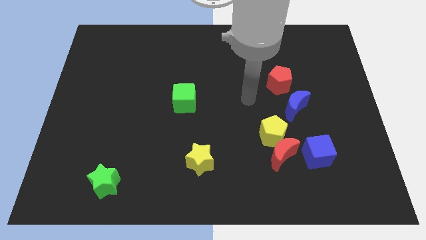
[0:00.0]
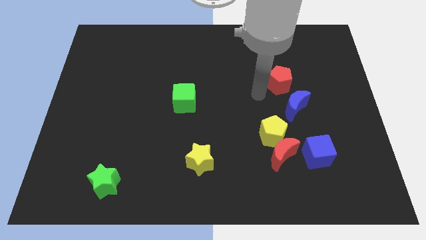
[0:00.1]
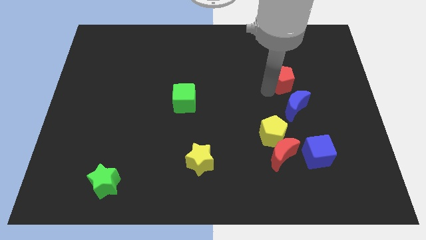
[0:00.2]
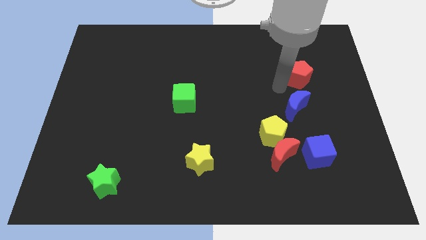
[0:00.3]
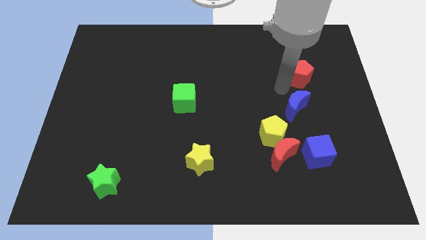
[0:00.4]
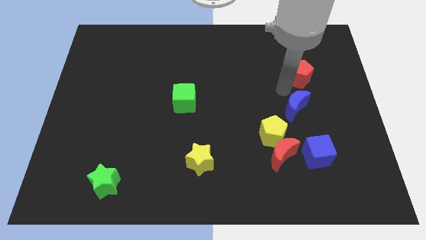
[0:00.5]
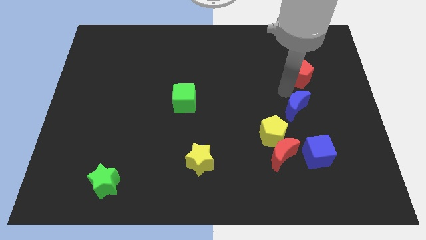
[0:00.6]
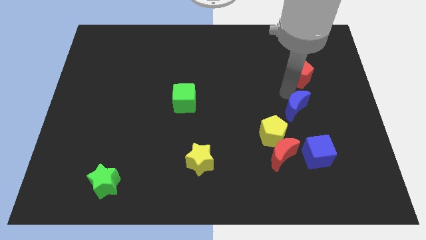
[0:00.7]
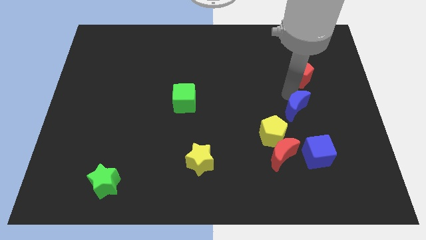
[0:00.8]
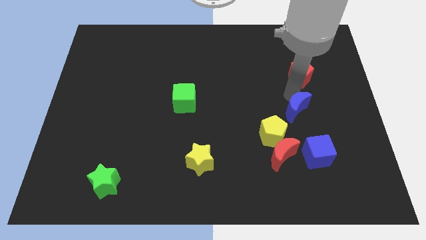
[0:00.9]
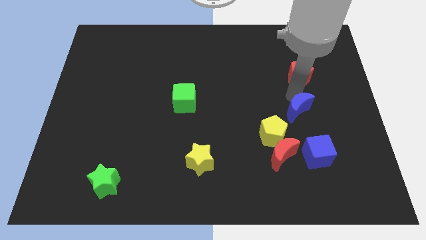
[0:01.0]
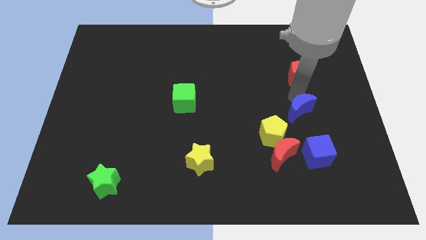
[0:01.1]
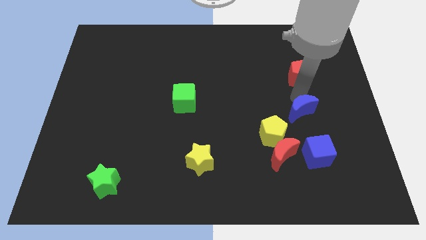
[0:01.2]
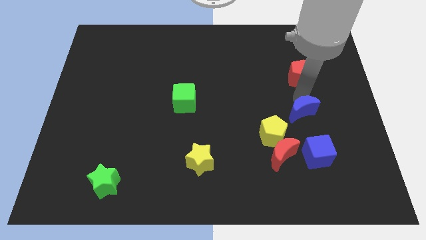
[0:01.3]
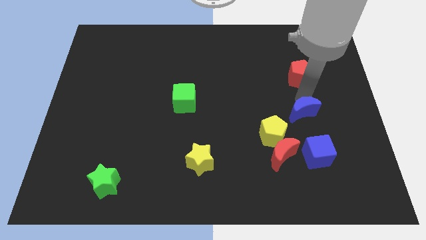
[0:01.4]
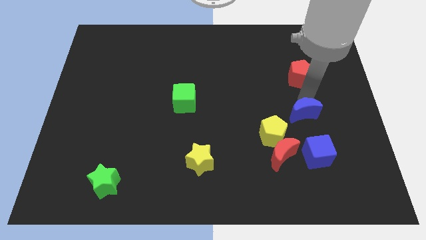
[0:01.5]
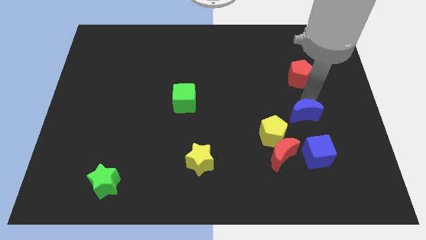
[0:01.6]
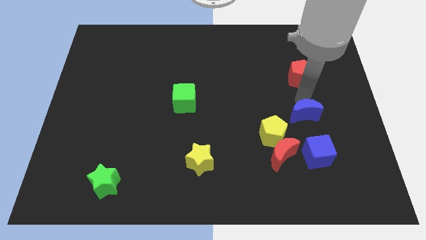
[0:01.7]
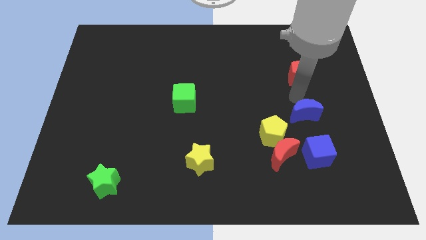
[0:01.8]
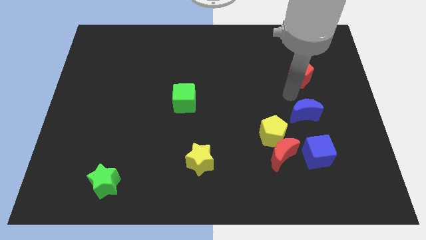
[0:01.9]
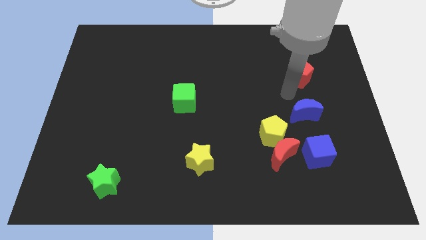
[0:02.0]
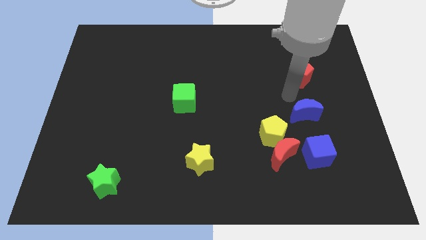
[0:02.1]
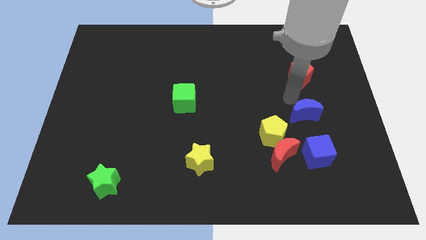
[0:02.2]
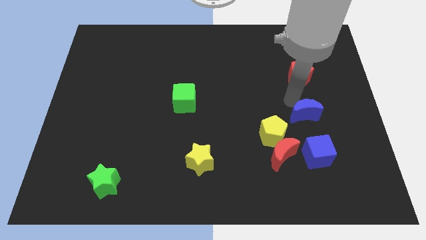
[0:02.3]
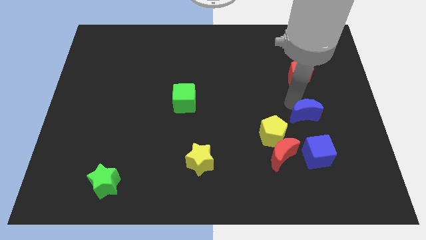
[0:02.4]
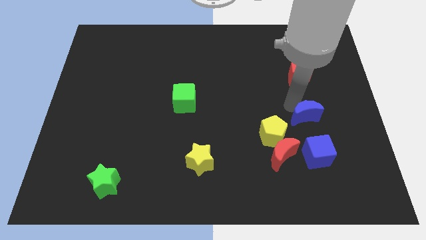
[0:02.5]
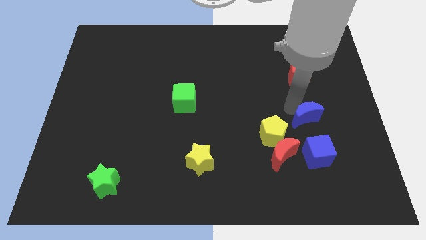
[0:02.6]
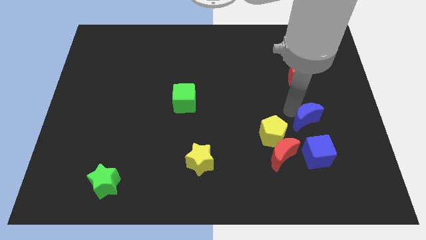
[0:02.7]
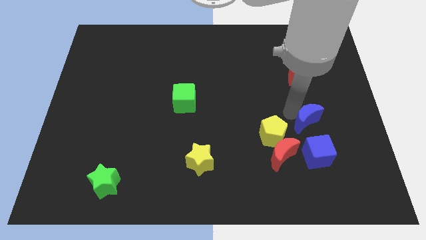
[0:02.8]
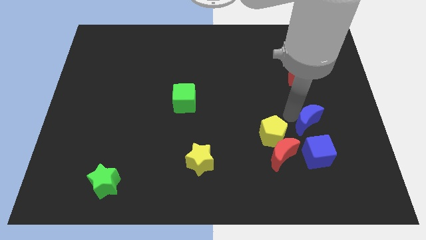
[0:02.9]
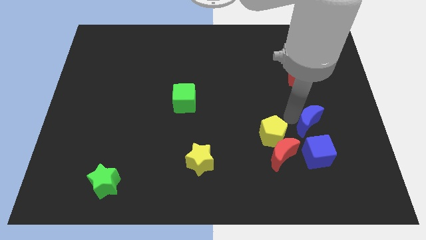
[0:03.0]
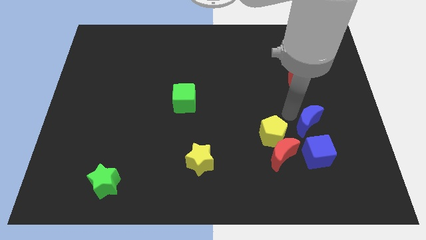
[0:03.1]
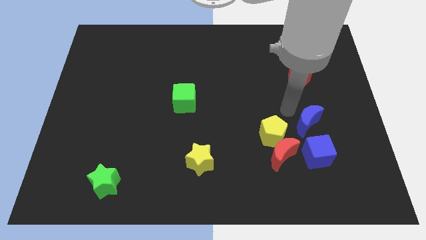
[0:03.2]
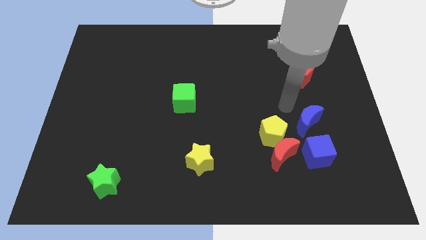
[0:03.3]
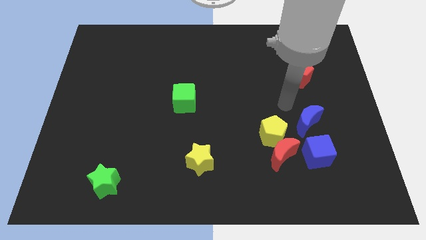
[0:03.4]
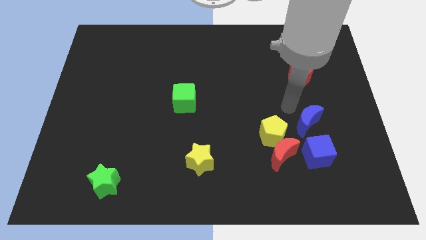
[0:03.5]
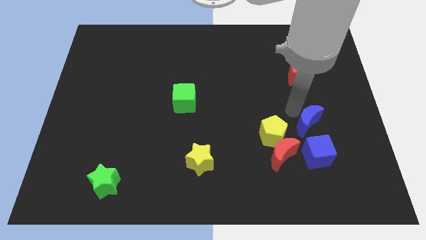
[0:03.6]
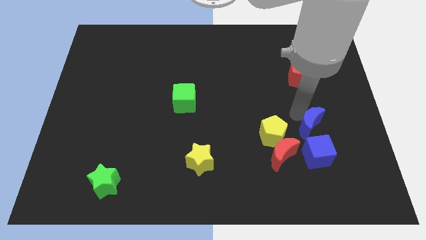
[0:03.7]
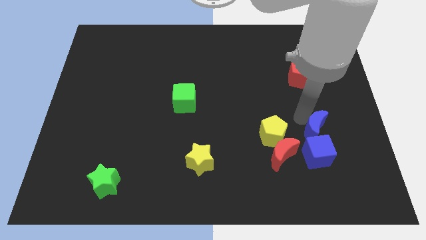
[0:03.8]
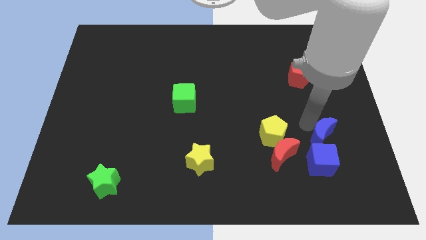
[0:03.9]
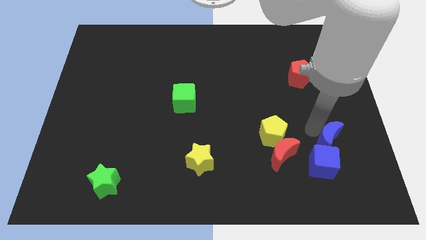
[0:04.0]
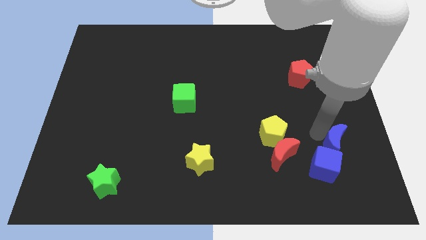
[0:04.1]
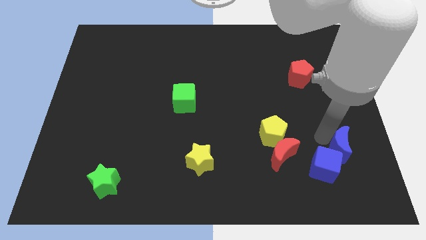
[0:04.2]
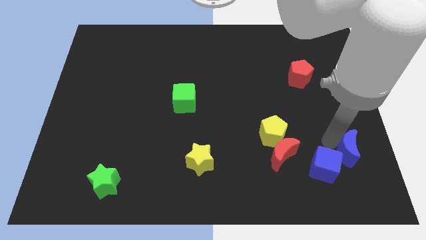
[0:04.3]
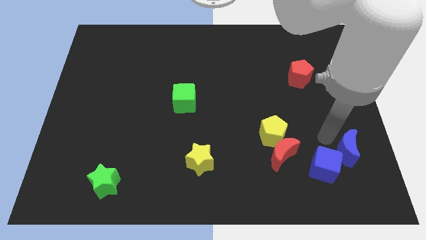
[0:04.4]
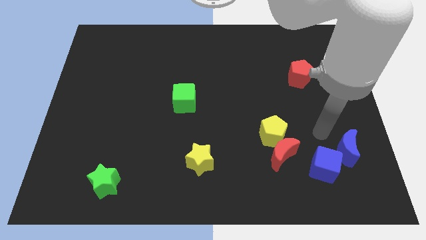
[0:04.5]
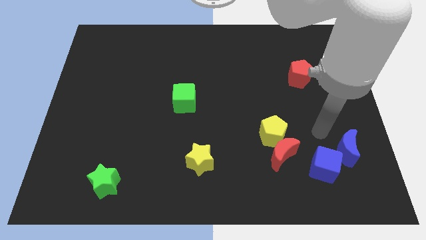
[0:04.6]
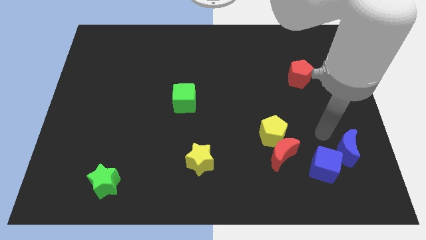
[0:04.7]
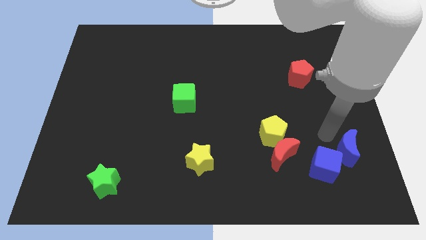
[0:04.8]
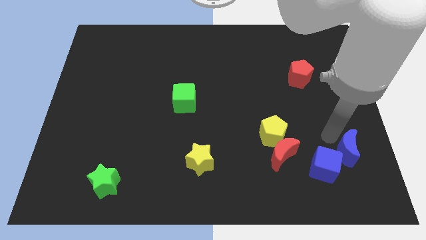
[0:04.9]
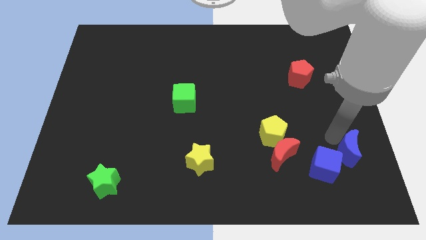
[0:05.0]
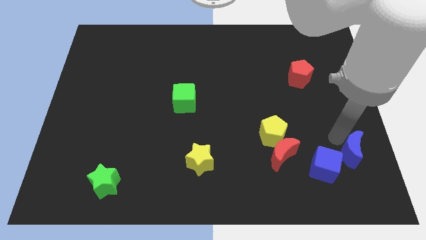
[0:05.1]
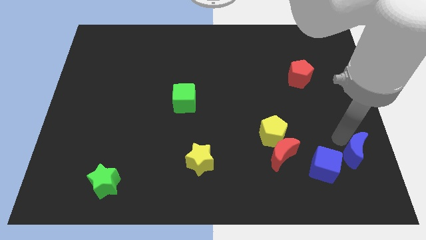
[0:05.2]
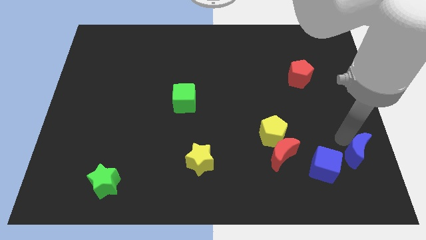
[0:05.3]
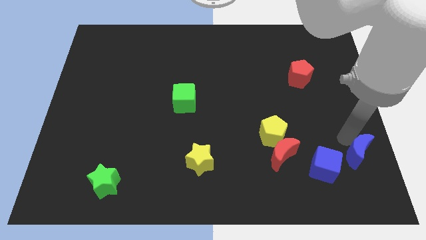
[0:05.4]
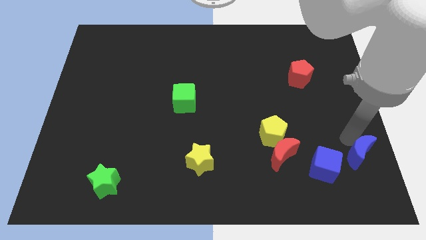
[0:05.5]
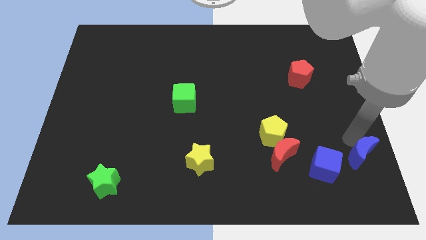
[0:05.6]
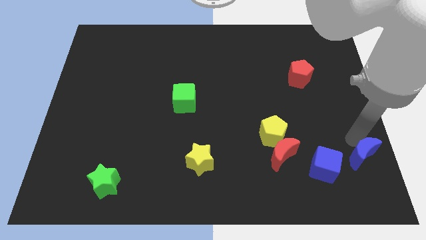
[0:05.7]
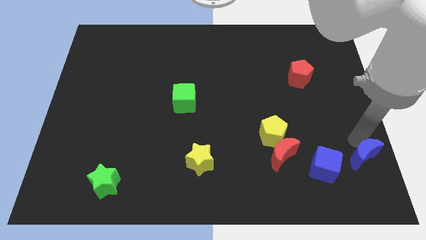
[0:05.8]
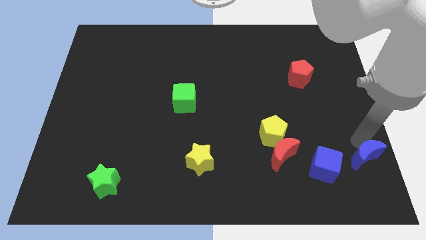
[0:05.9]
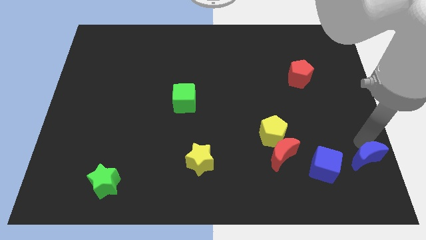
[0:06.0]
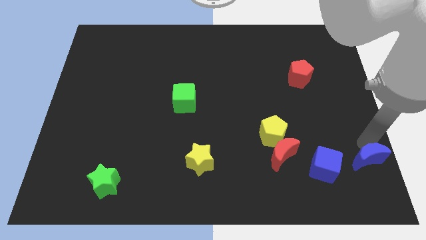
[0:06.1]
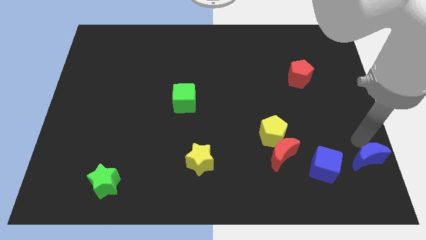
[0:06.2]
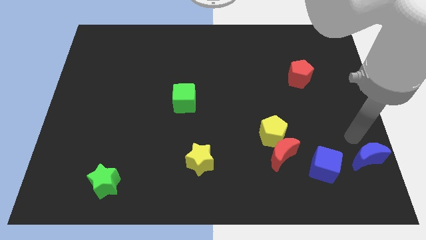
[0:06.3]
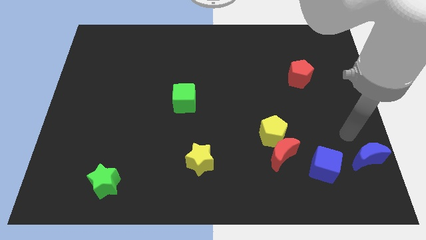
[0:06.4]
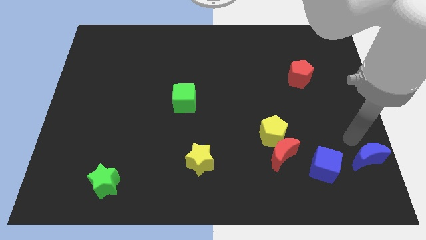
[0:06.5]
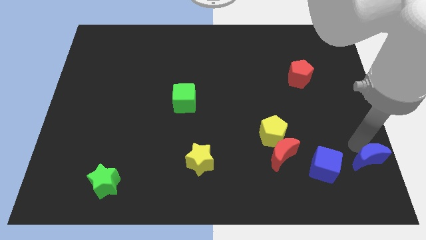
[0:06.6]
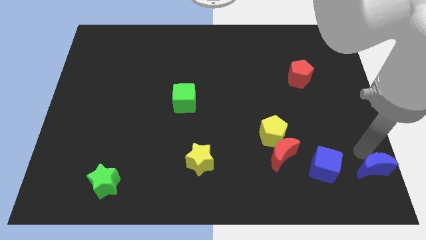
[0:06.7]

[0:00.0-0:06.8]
move the blue moon to the bottom right of the board
